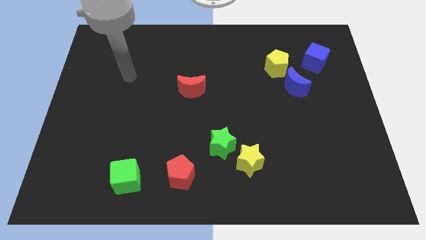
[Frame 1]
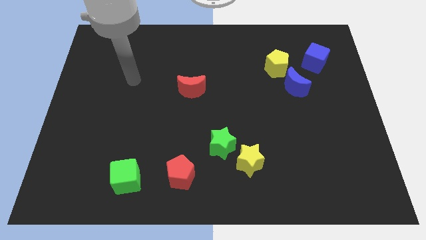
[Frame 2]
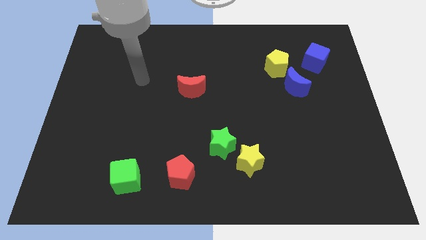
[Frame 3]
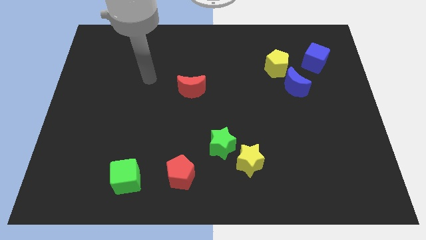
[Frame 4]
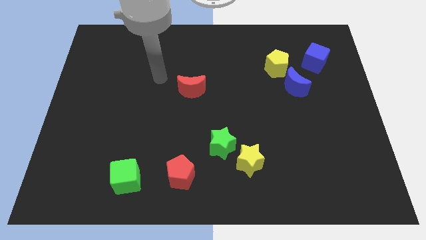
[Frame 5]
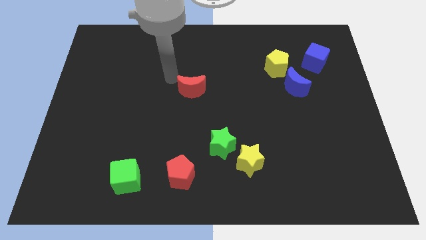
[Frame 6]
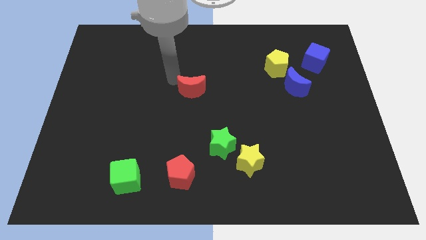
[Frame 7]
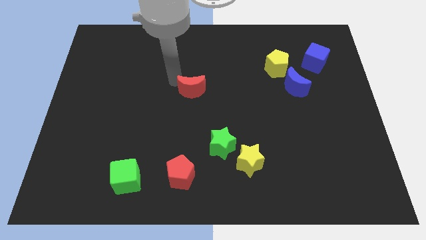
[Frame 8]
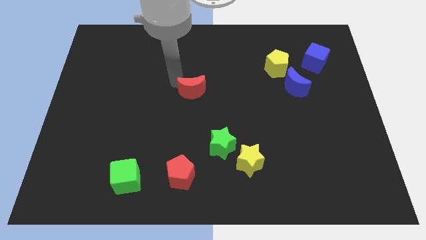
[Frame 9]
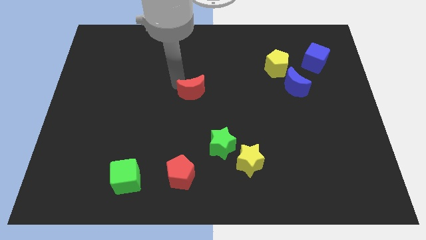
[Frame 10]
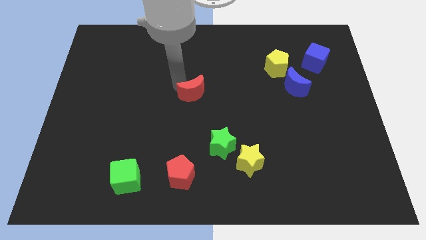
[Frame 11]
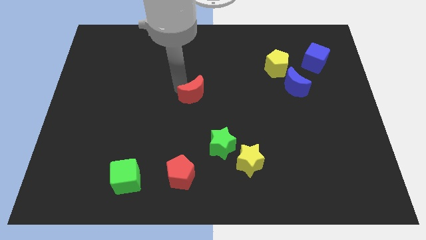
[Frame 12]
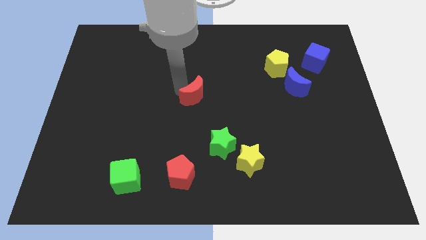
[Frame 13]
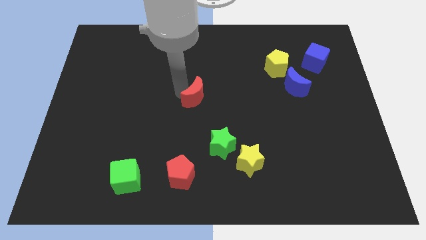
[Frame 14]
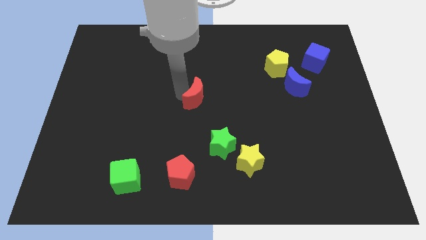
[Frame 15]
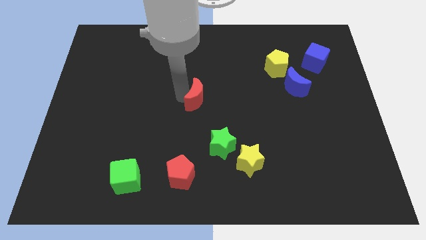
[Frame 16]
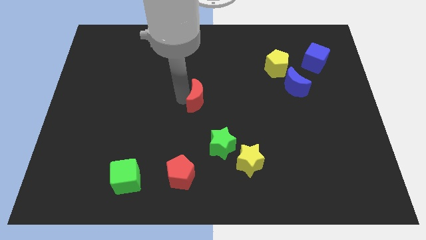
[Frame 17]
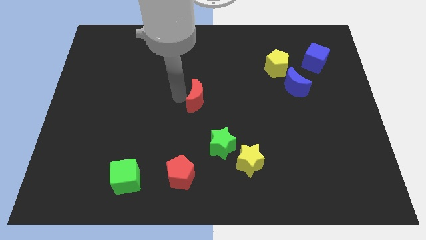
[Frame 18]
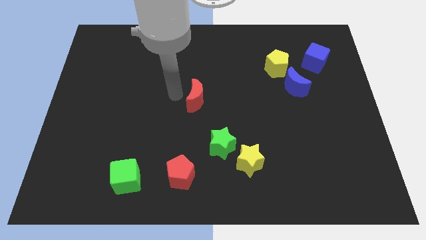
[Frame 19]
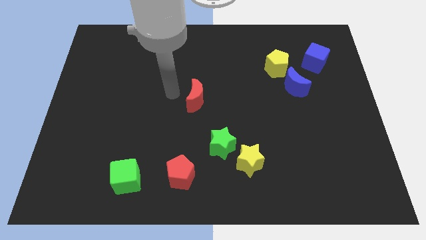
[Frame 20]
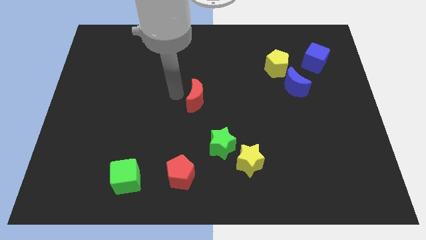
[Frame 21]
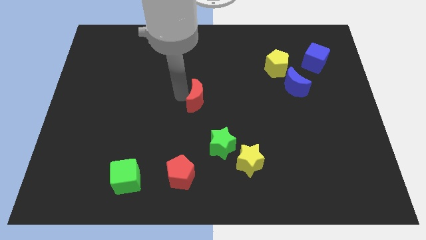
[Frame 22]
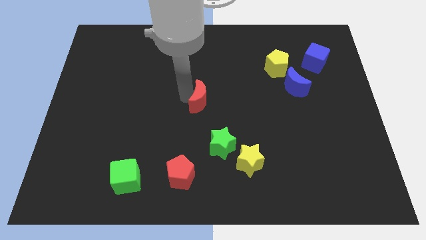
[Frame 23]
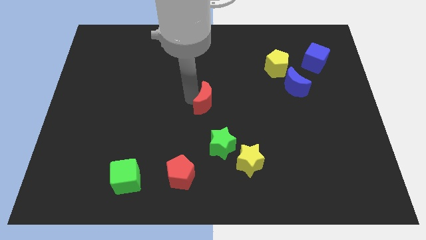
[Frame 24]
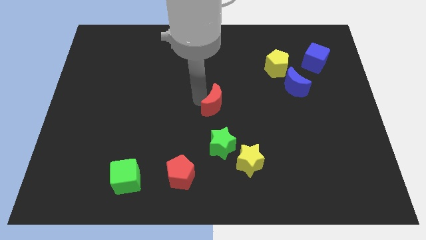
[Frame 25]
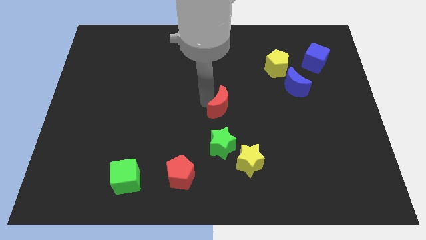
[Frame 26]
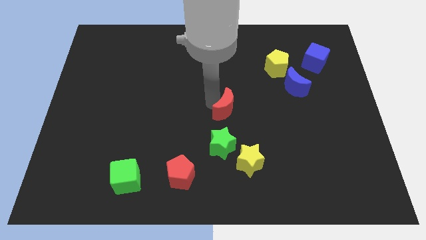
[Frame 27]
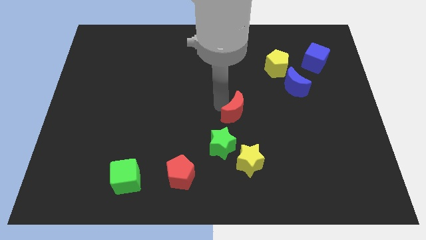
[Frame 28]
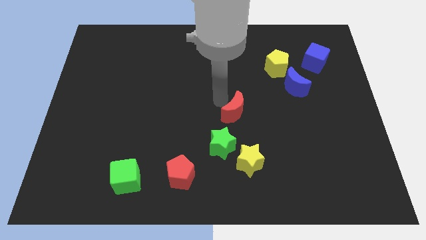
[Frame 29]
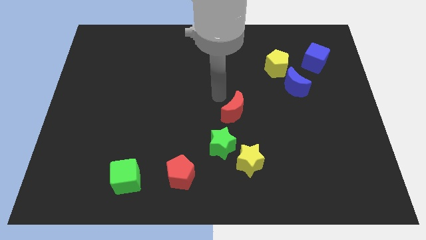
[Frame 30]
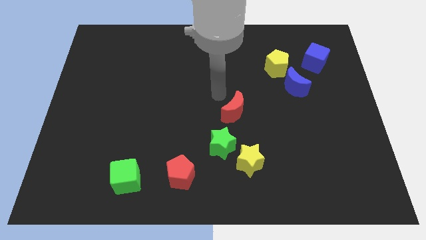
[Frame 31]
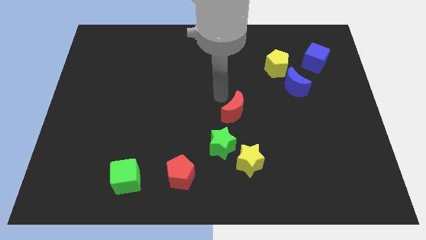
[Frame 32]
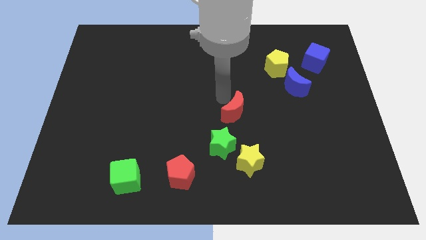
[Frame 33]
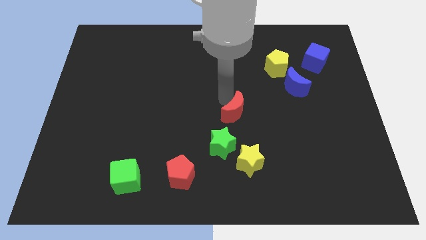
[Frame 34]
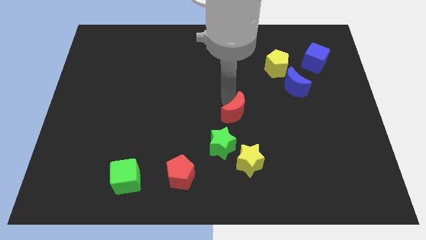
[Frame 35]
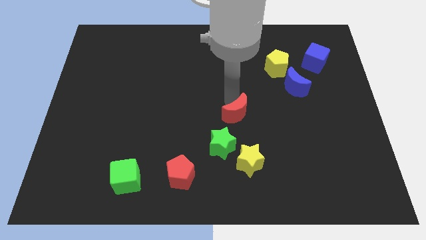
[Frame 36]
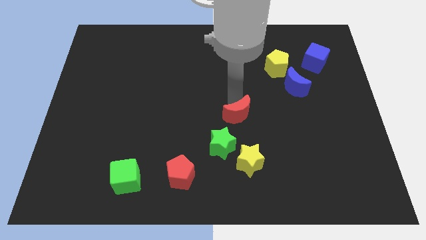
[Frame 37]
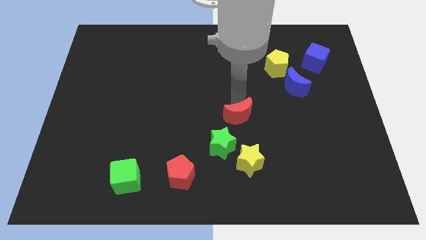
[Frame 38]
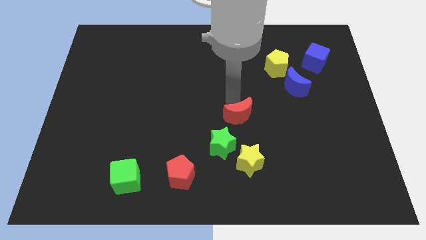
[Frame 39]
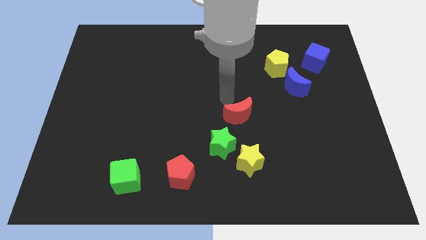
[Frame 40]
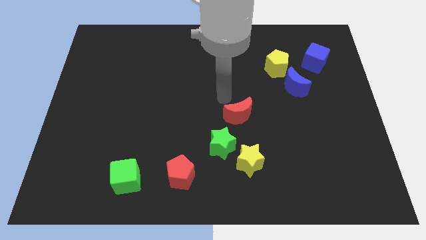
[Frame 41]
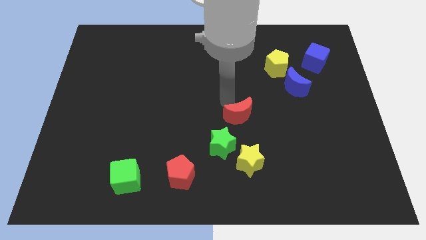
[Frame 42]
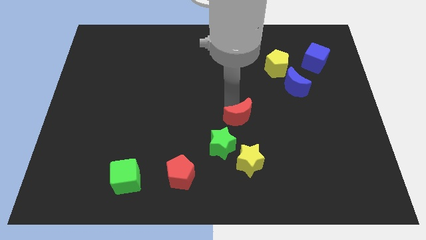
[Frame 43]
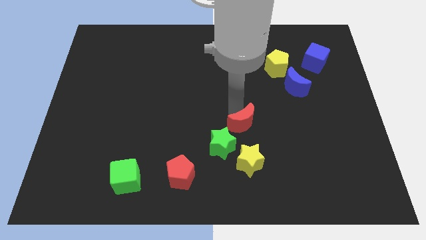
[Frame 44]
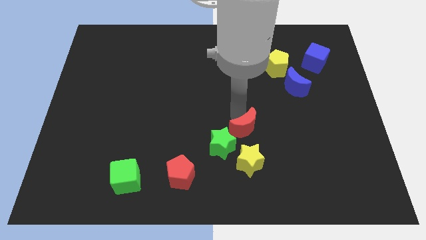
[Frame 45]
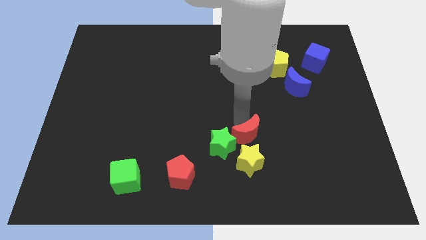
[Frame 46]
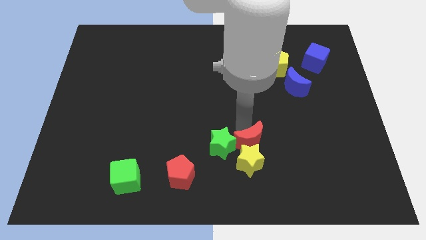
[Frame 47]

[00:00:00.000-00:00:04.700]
push the red moon downwards and right diagonally

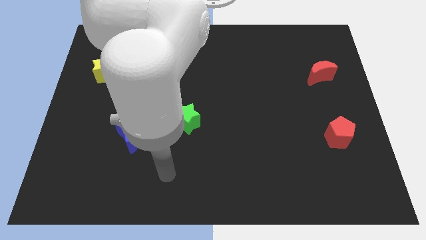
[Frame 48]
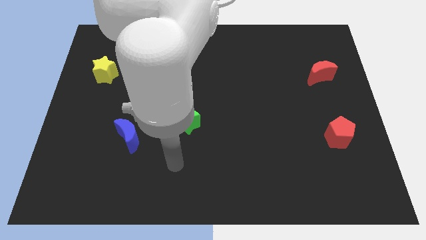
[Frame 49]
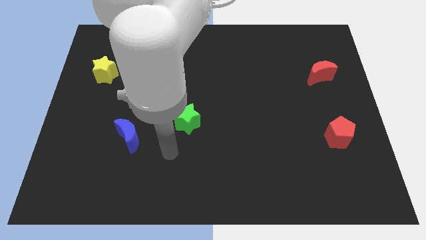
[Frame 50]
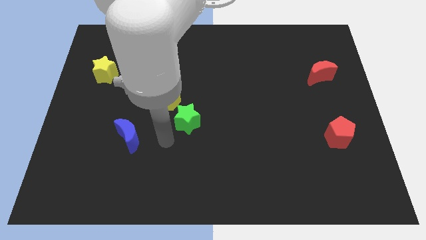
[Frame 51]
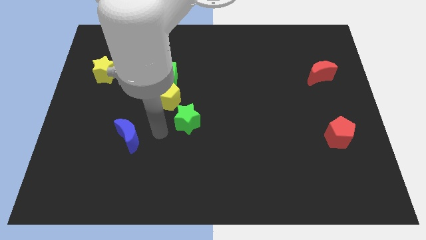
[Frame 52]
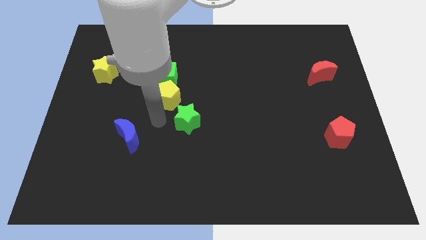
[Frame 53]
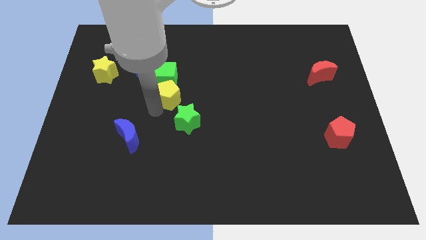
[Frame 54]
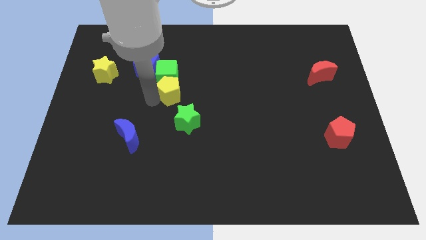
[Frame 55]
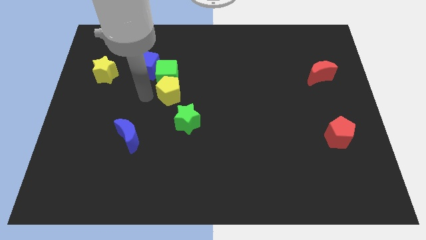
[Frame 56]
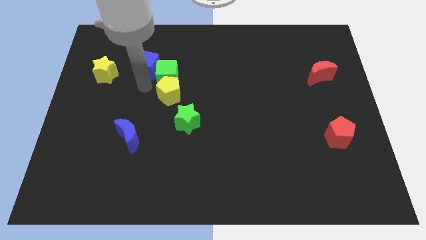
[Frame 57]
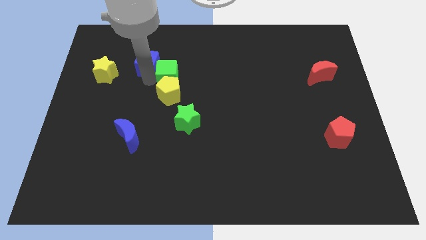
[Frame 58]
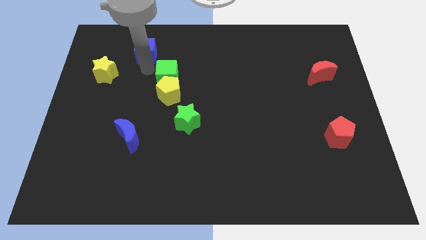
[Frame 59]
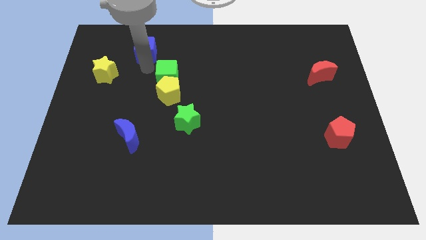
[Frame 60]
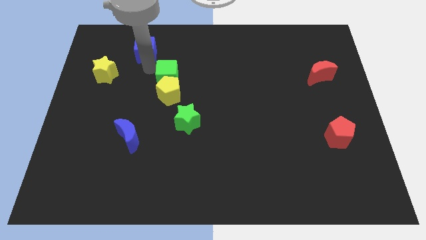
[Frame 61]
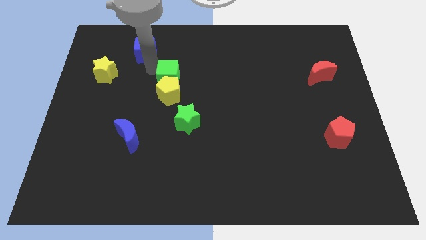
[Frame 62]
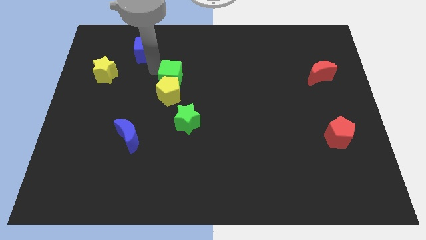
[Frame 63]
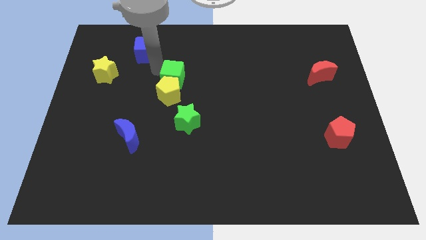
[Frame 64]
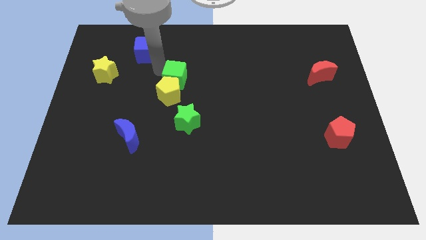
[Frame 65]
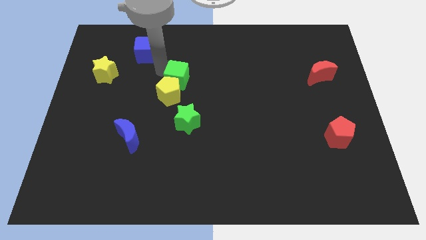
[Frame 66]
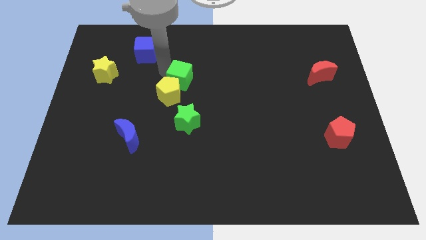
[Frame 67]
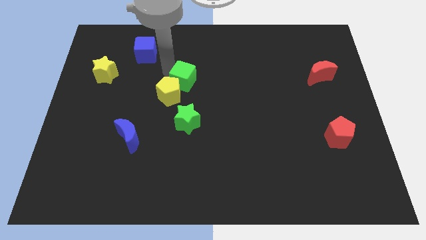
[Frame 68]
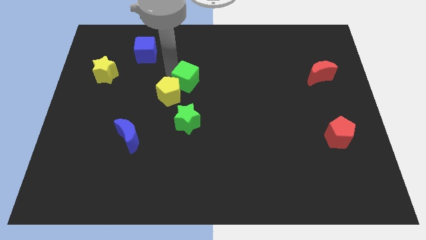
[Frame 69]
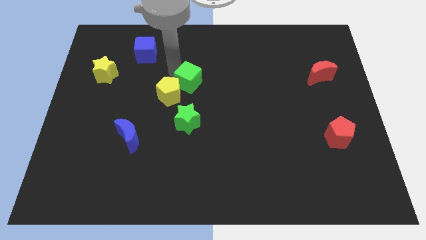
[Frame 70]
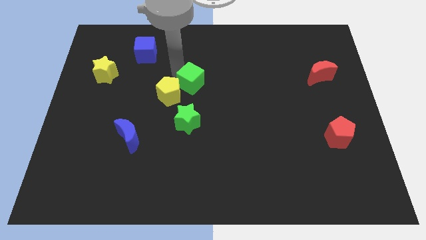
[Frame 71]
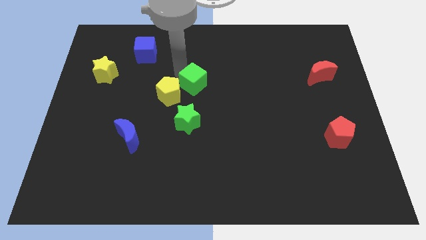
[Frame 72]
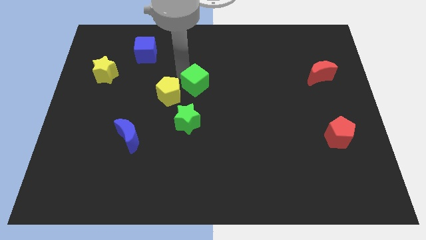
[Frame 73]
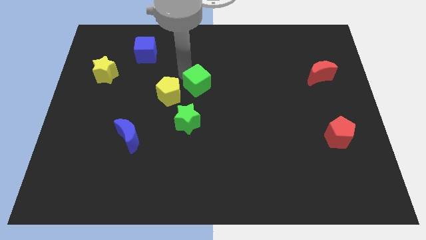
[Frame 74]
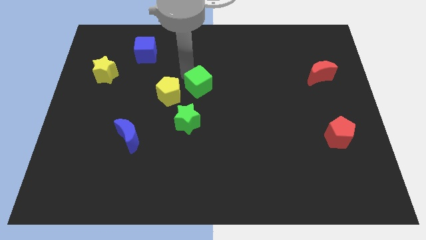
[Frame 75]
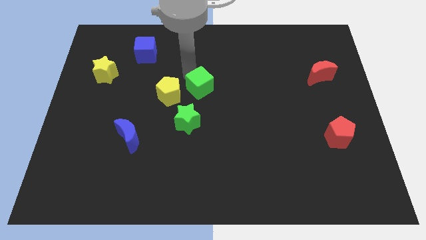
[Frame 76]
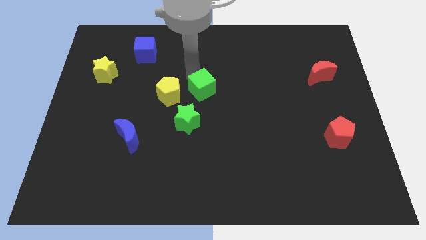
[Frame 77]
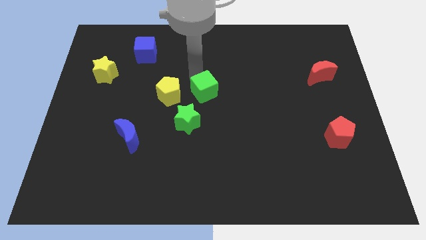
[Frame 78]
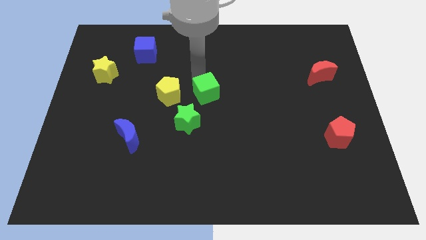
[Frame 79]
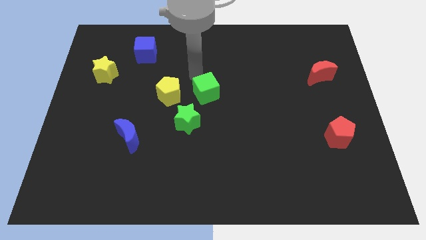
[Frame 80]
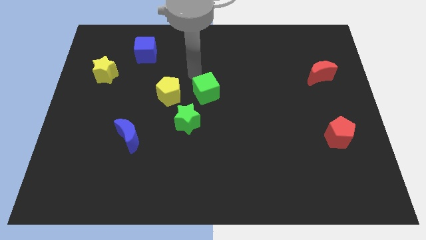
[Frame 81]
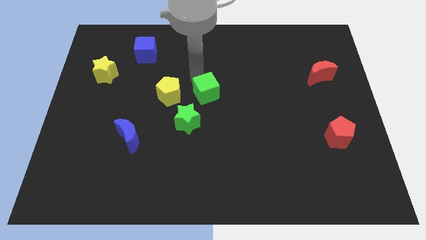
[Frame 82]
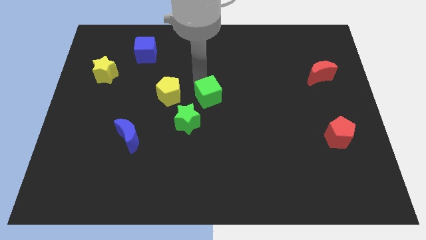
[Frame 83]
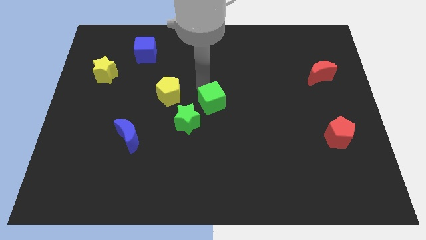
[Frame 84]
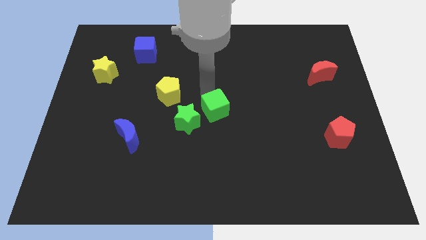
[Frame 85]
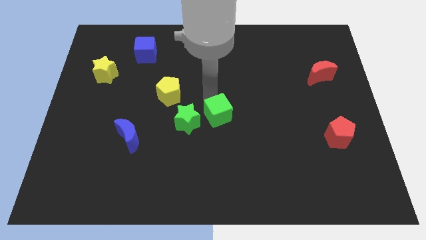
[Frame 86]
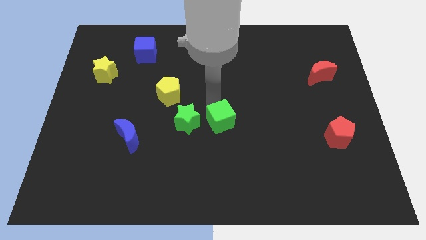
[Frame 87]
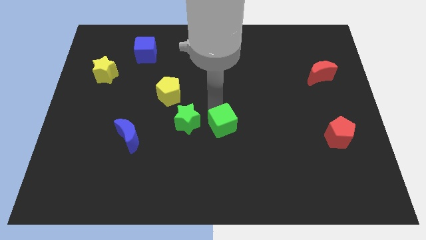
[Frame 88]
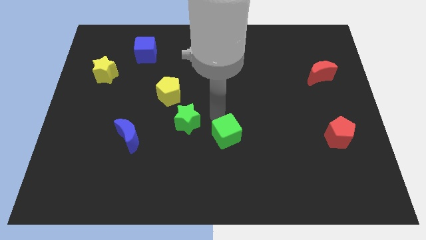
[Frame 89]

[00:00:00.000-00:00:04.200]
slide the green cube diagonally downwards and to the right
